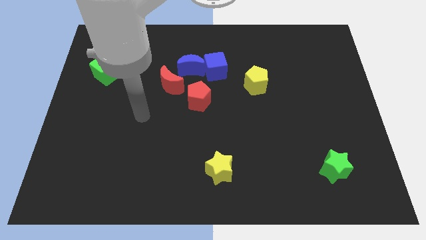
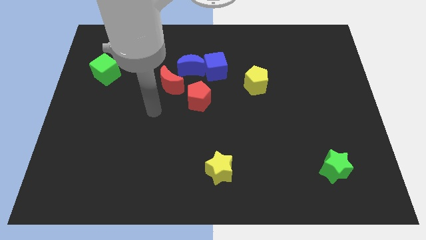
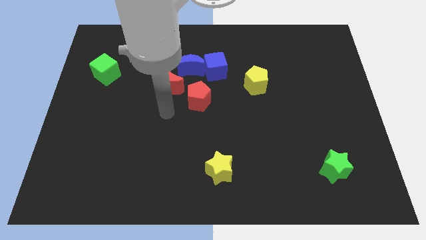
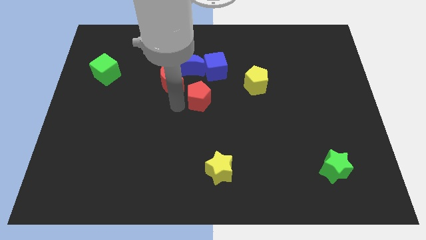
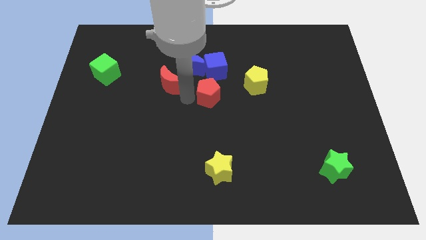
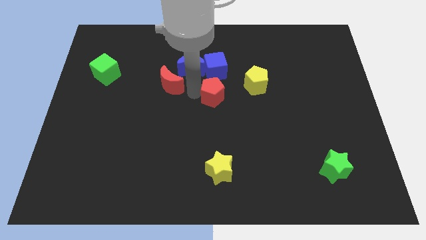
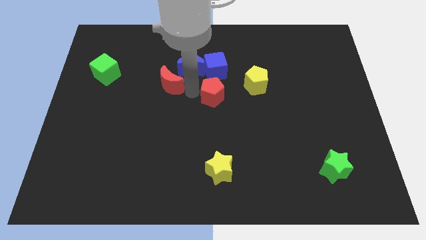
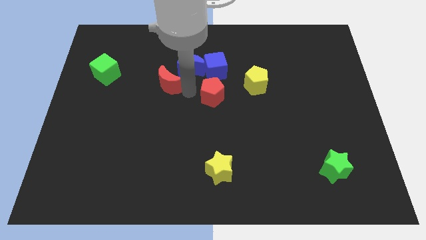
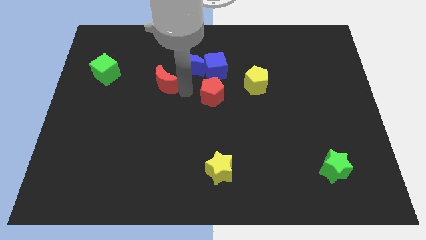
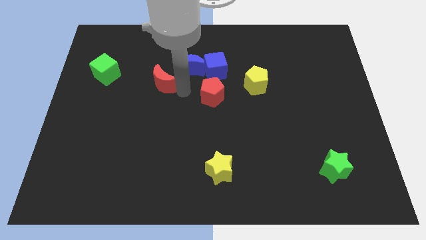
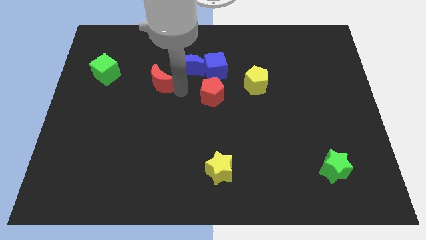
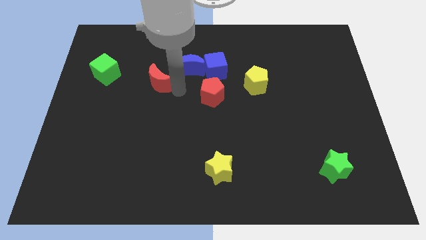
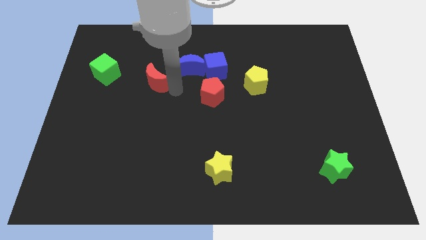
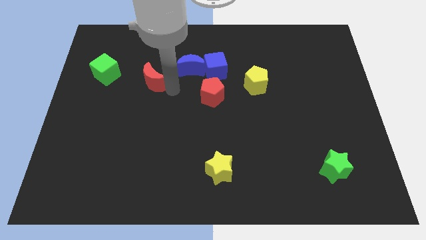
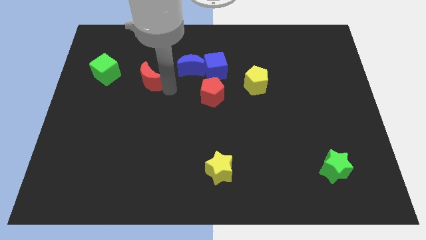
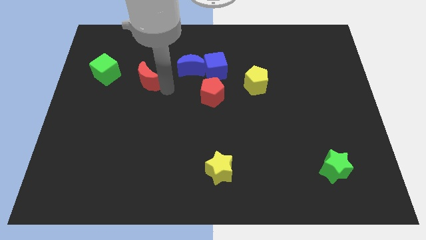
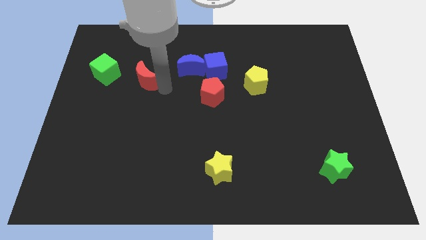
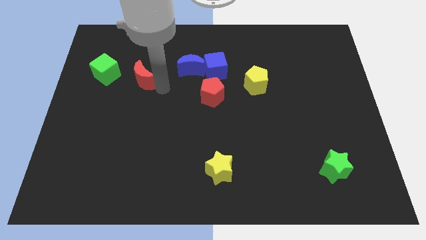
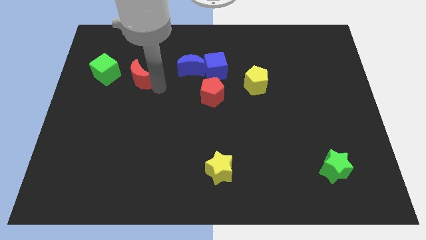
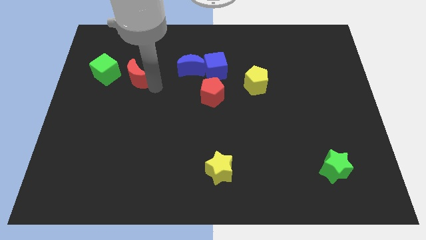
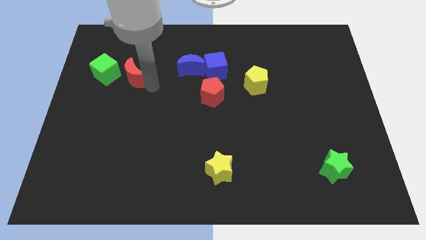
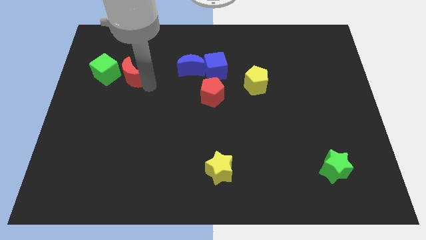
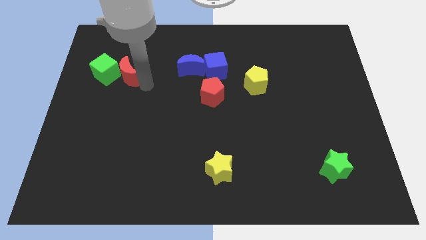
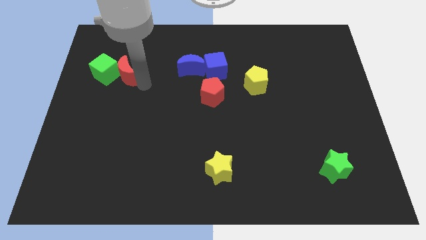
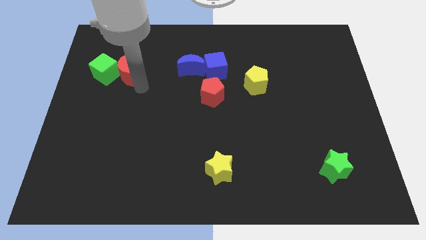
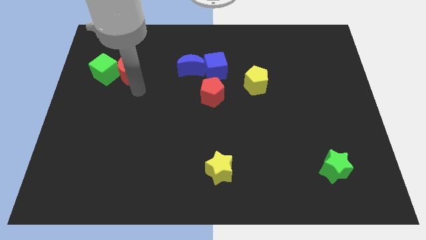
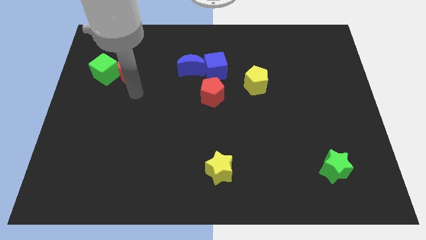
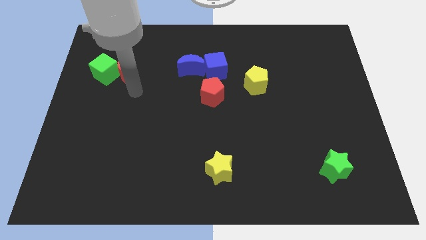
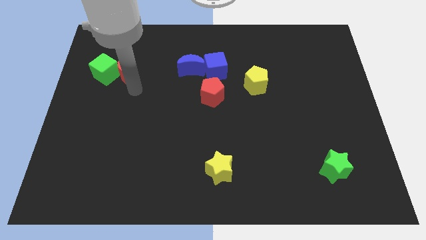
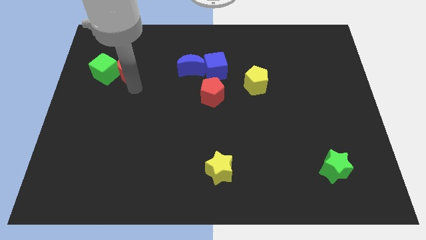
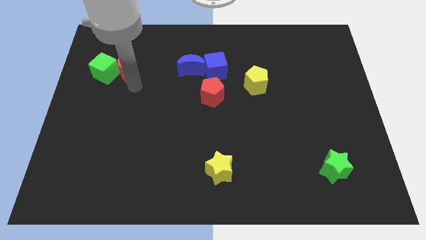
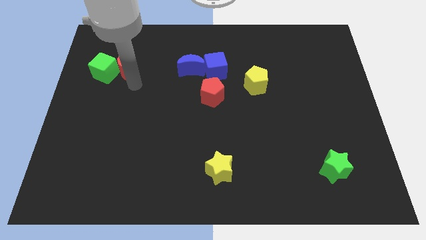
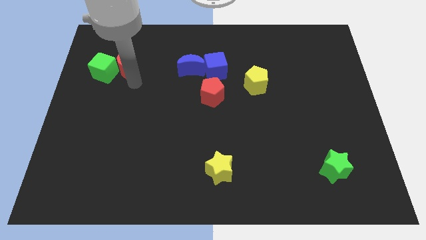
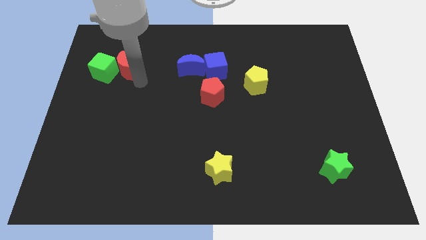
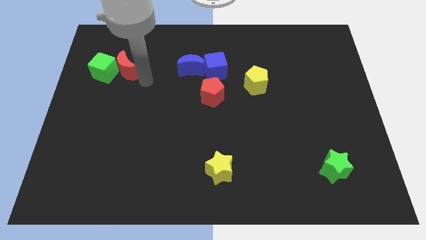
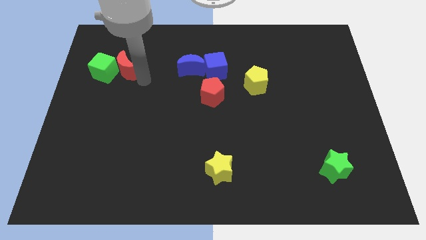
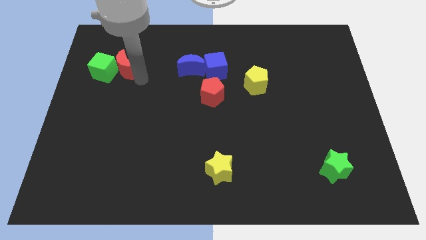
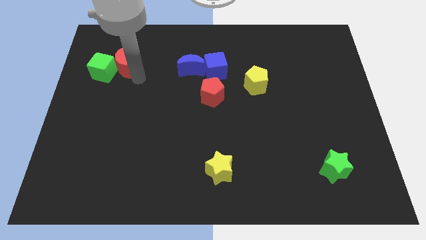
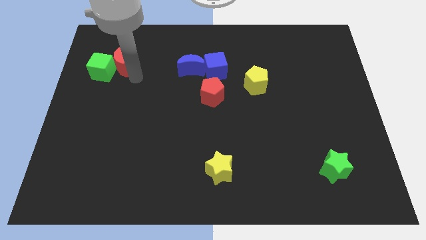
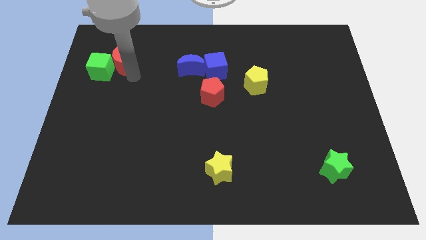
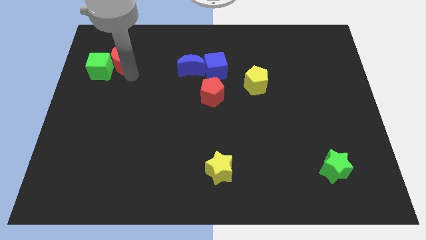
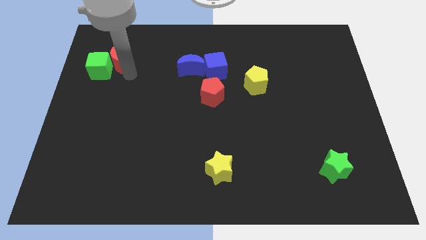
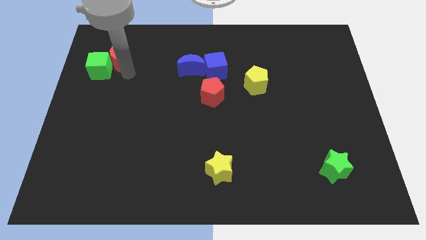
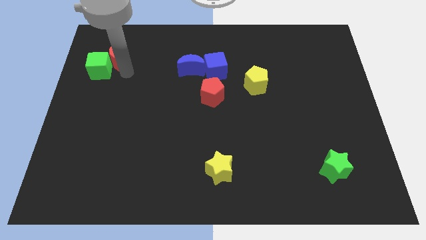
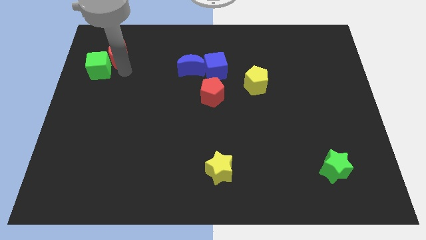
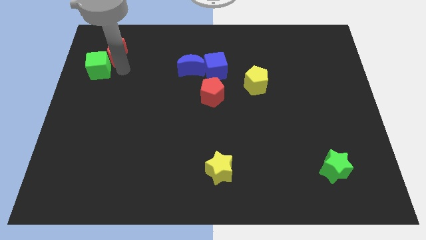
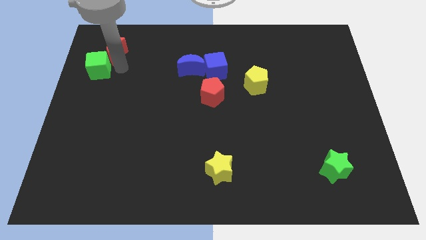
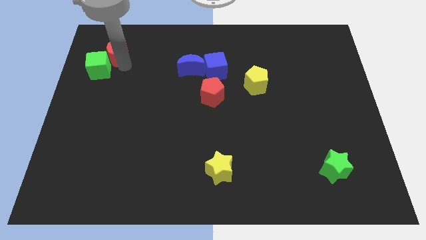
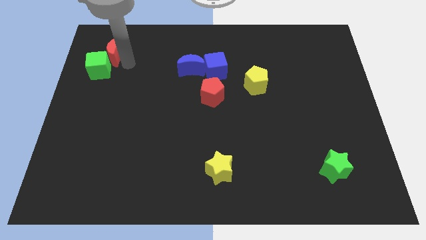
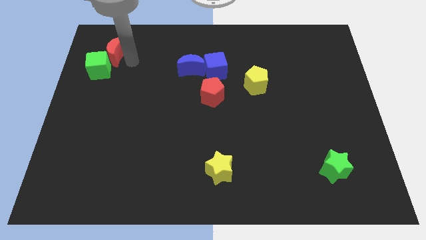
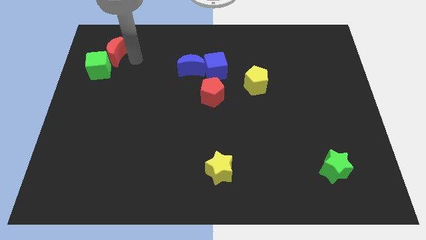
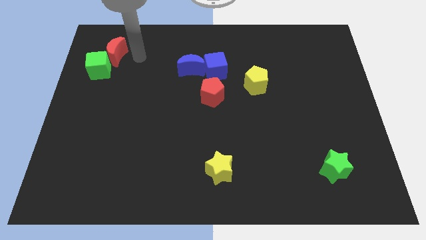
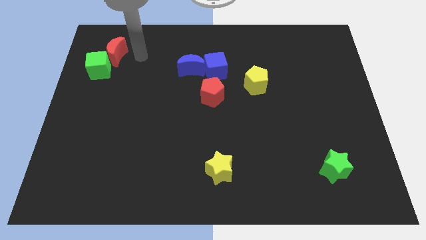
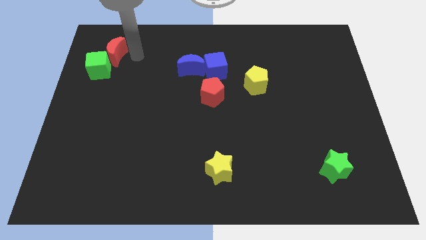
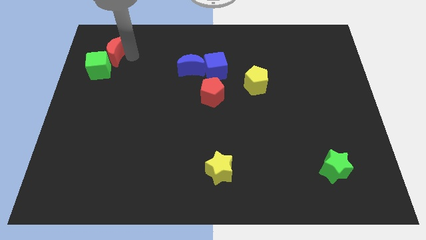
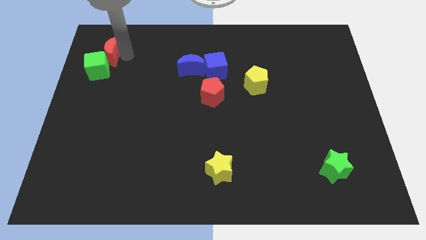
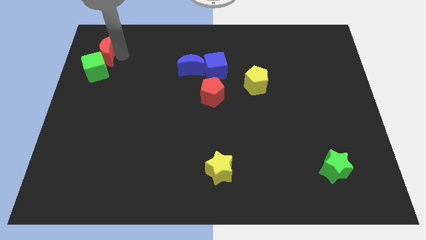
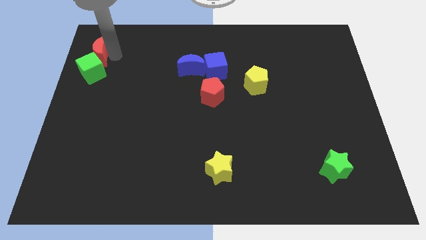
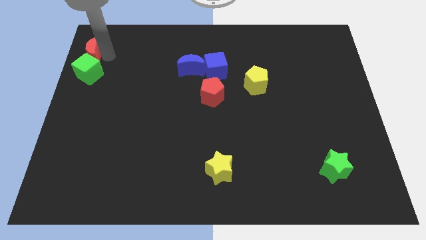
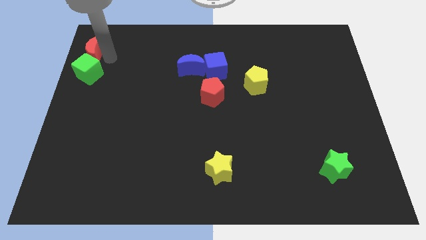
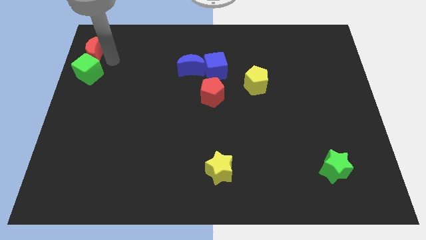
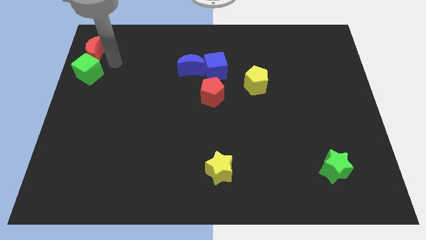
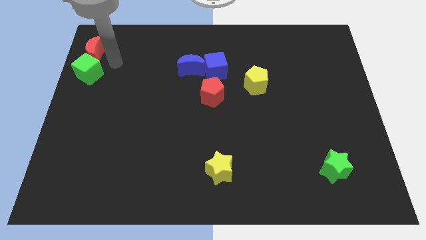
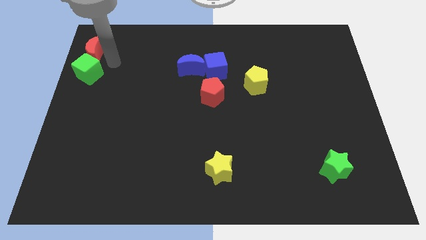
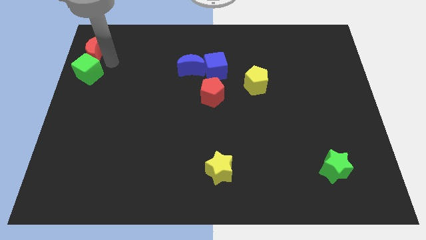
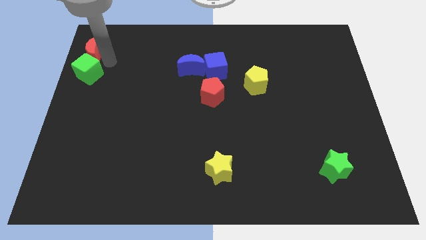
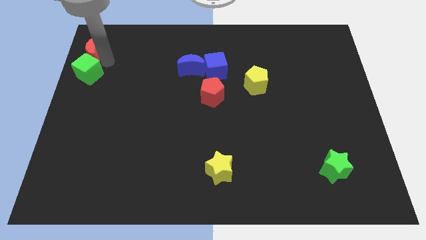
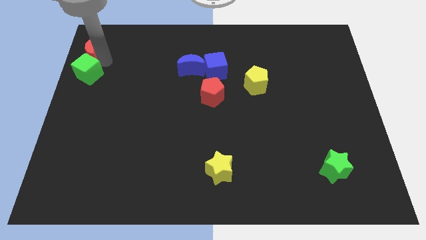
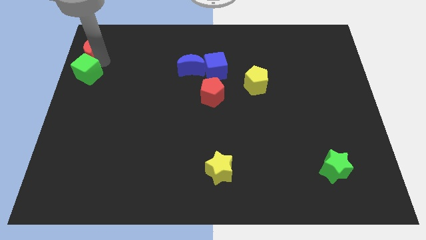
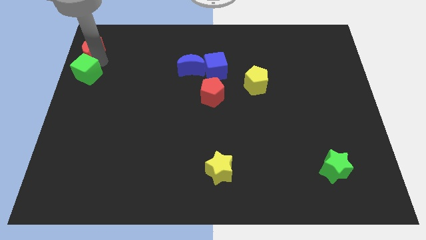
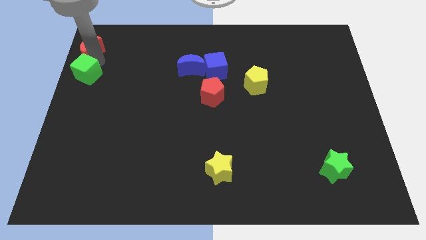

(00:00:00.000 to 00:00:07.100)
push the red moon to the upper left corner

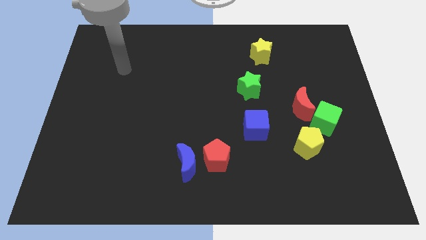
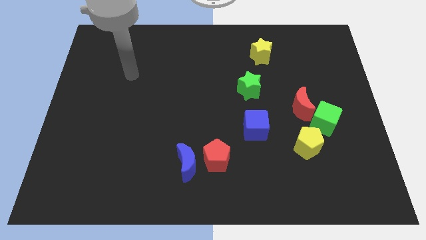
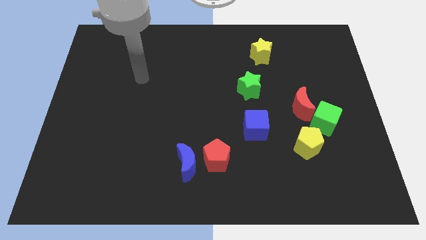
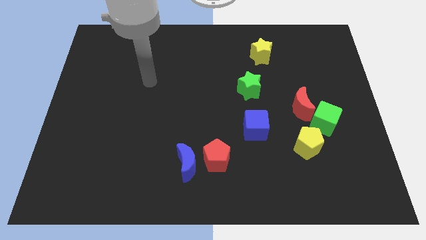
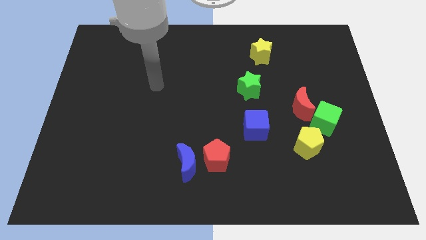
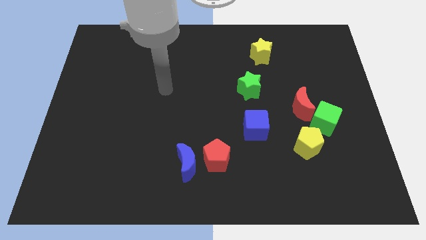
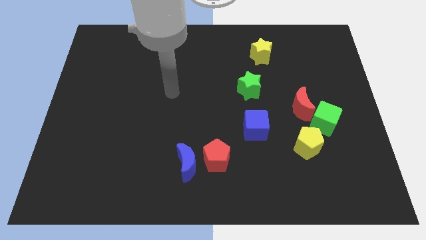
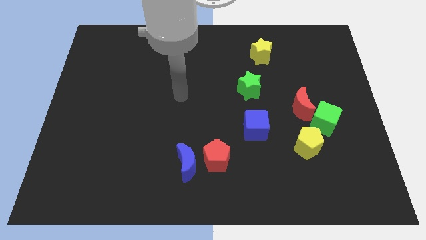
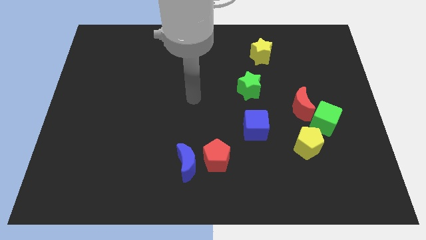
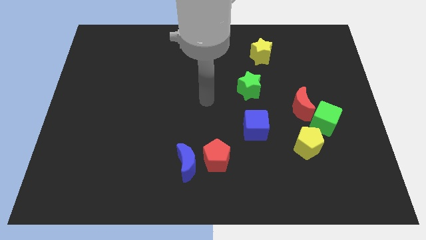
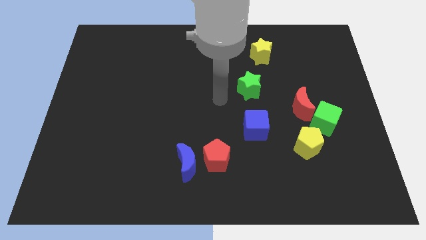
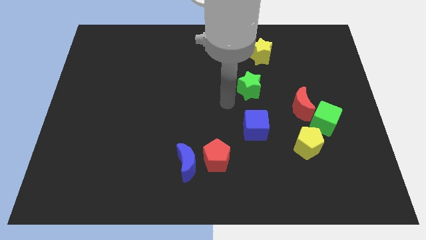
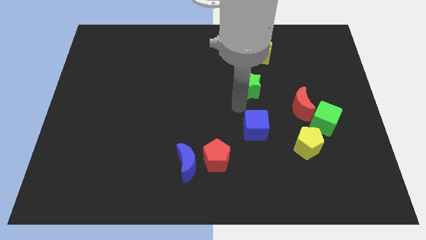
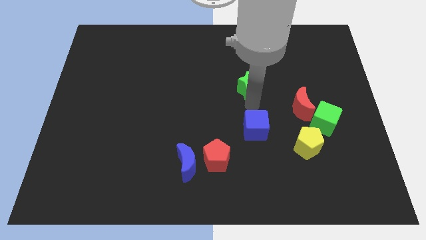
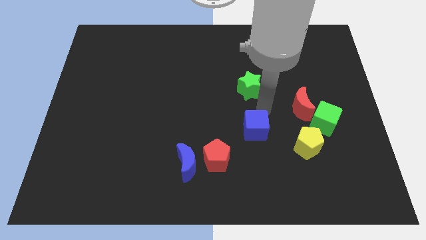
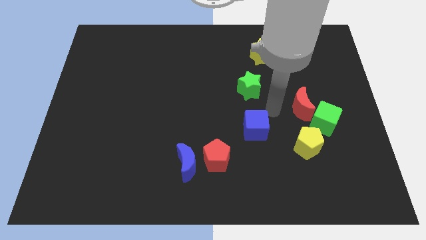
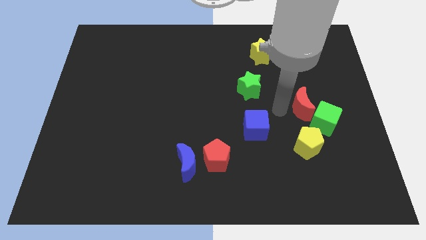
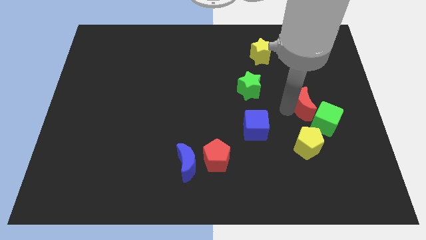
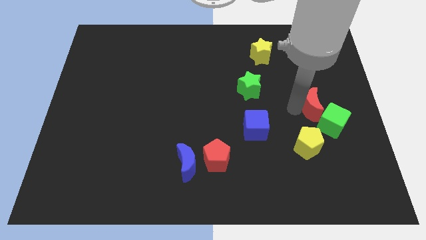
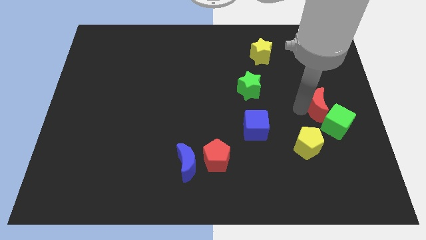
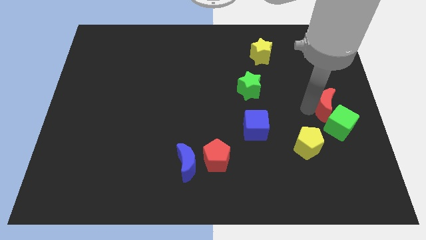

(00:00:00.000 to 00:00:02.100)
slide the red moon to the right side of the board
